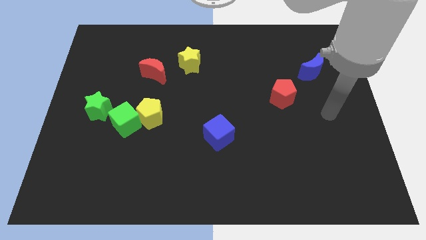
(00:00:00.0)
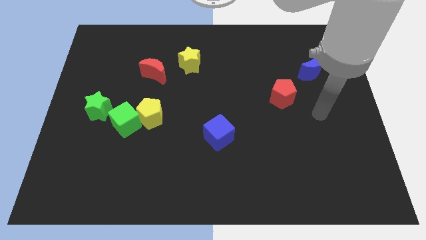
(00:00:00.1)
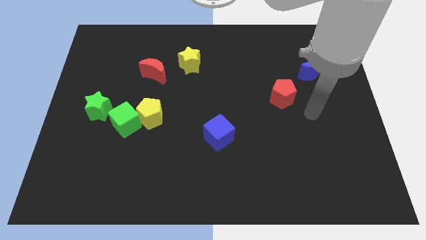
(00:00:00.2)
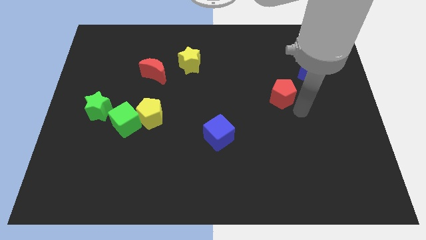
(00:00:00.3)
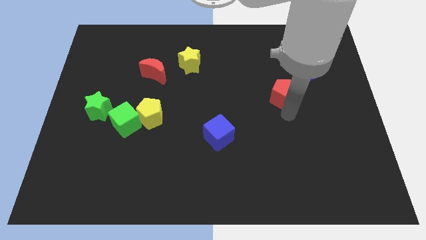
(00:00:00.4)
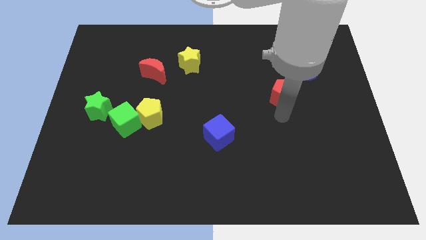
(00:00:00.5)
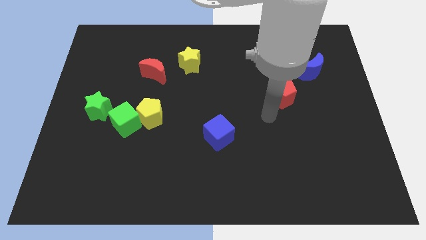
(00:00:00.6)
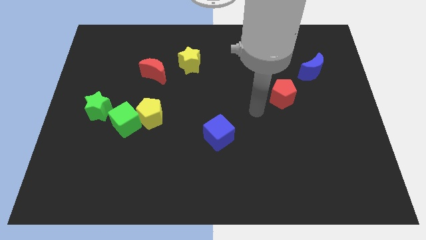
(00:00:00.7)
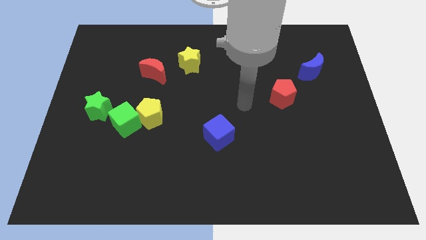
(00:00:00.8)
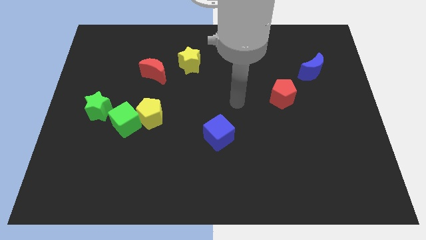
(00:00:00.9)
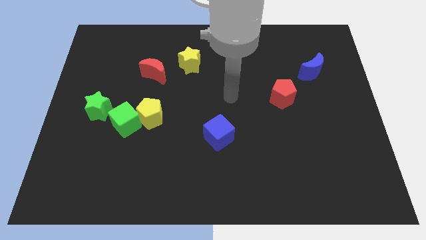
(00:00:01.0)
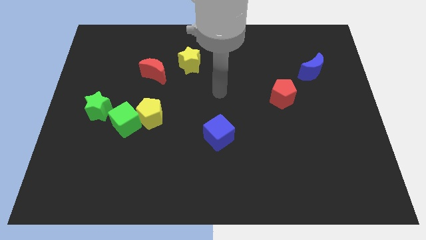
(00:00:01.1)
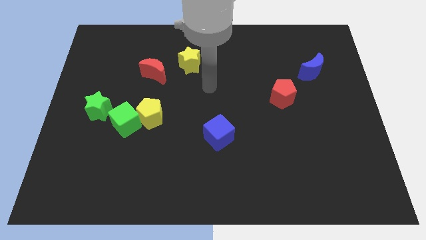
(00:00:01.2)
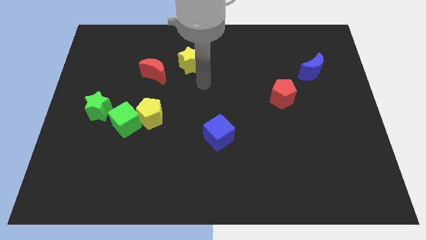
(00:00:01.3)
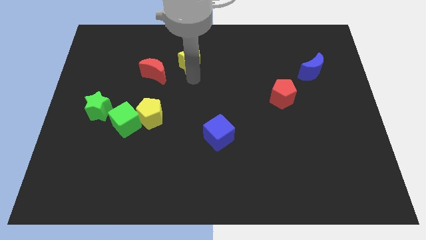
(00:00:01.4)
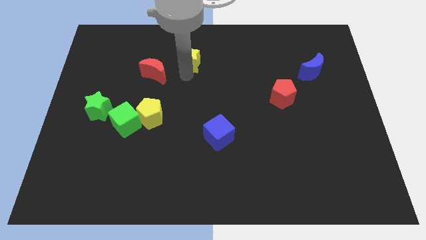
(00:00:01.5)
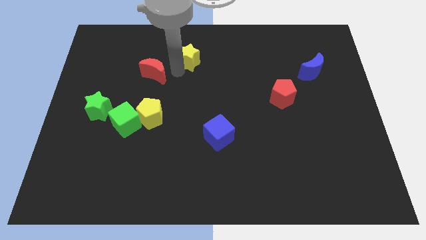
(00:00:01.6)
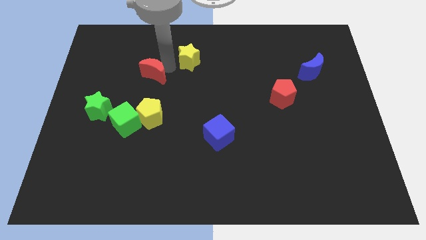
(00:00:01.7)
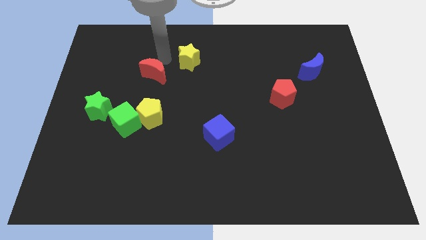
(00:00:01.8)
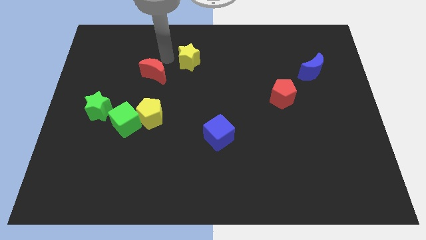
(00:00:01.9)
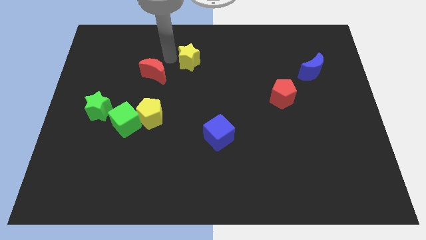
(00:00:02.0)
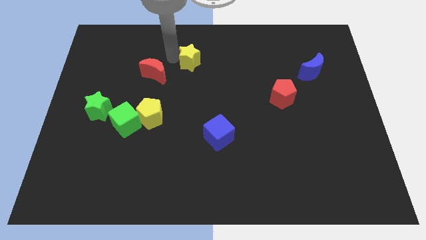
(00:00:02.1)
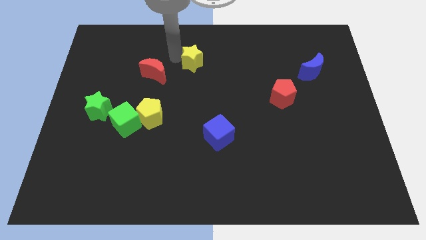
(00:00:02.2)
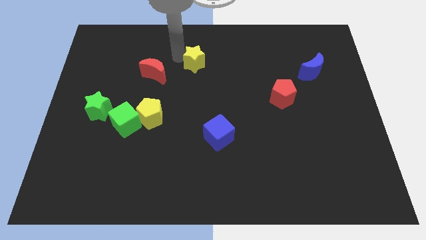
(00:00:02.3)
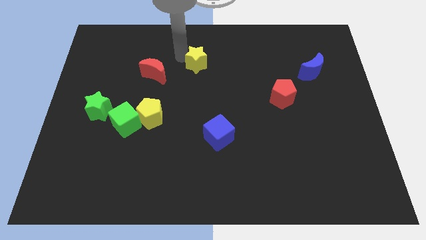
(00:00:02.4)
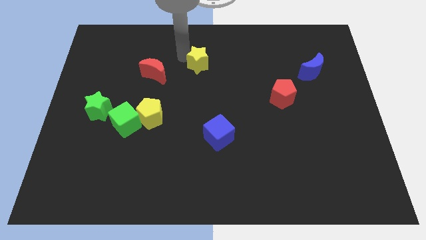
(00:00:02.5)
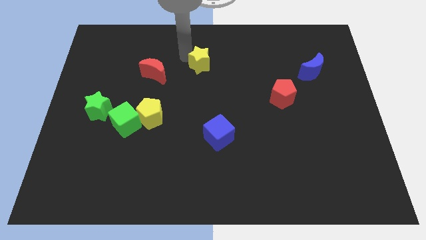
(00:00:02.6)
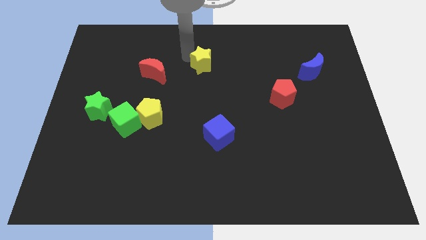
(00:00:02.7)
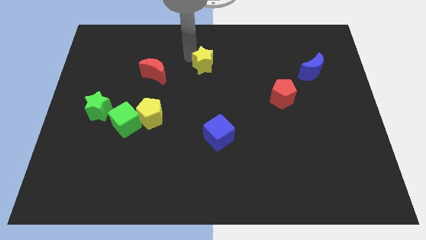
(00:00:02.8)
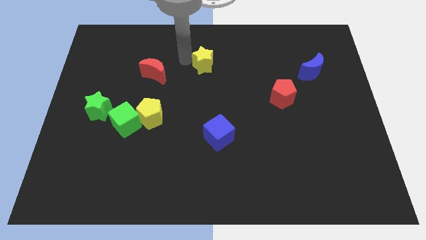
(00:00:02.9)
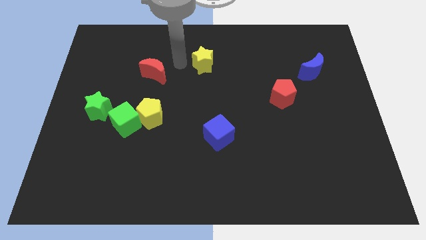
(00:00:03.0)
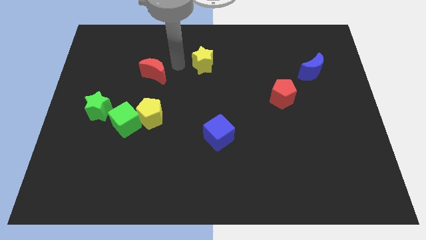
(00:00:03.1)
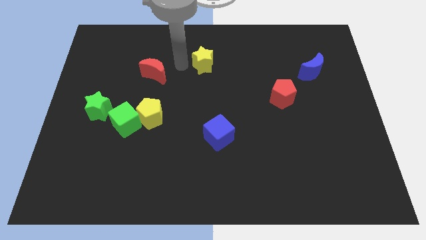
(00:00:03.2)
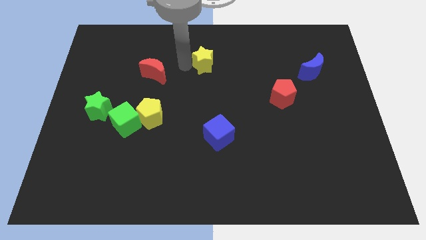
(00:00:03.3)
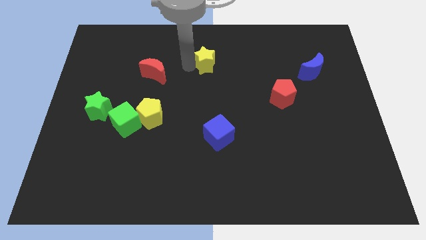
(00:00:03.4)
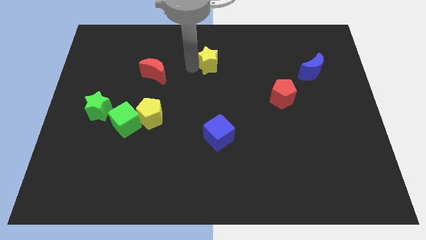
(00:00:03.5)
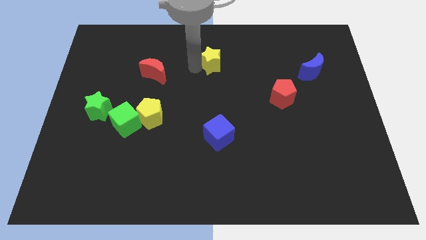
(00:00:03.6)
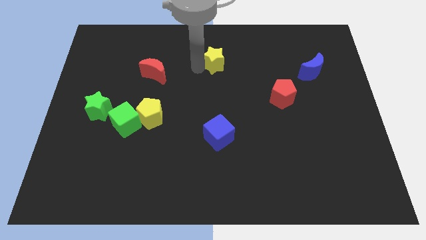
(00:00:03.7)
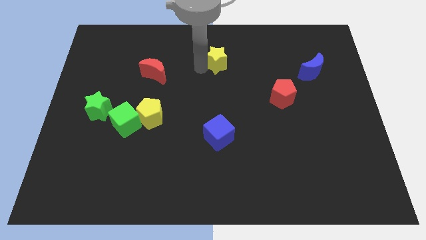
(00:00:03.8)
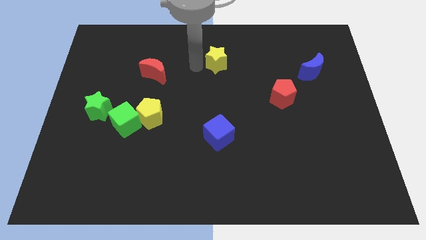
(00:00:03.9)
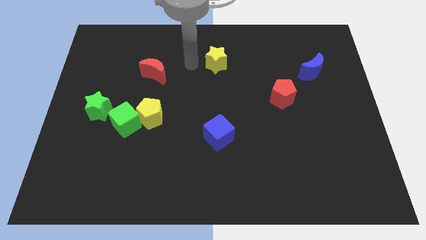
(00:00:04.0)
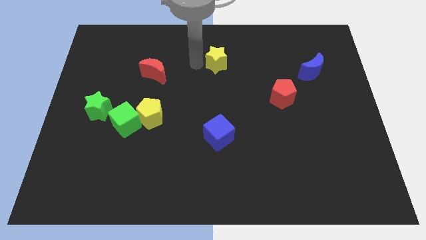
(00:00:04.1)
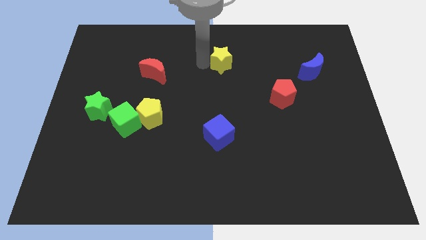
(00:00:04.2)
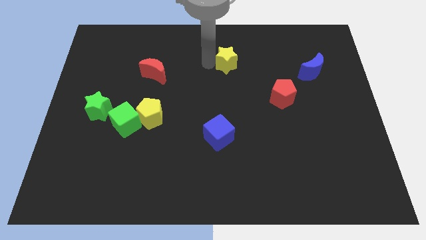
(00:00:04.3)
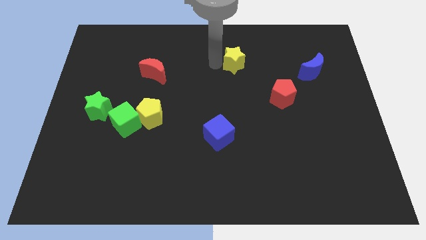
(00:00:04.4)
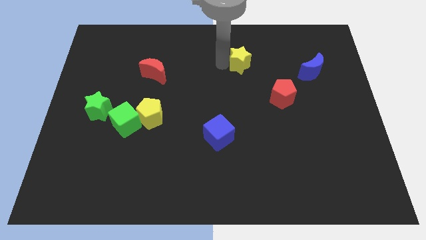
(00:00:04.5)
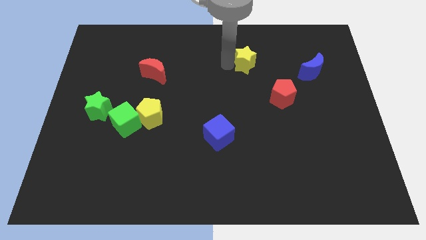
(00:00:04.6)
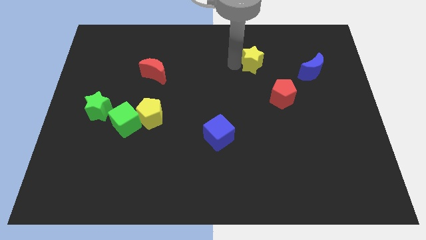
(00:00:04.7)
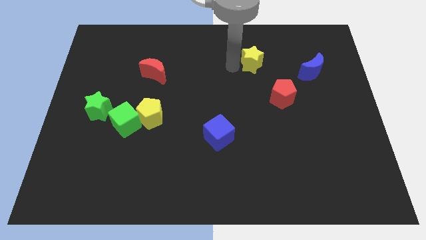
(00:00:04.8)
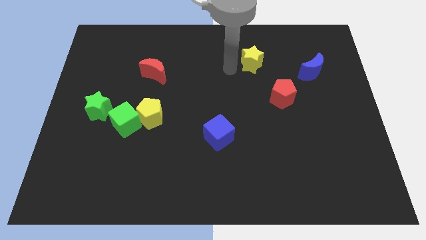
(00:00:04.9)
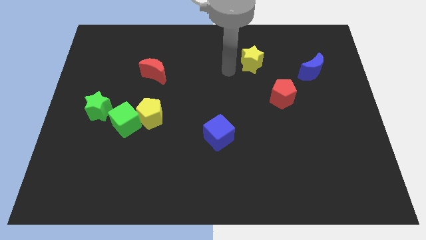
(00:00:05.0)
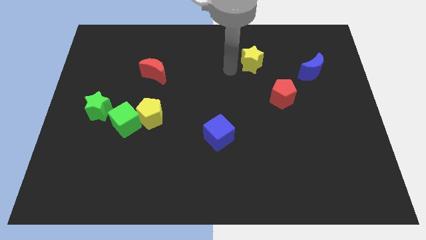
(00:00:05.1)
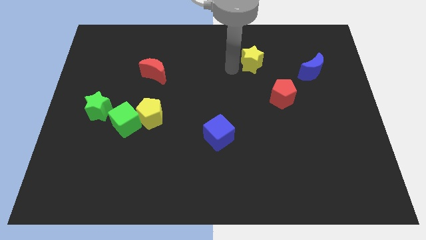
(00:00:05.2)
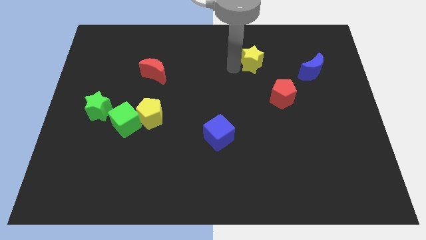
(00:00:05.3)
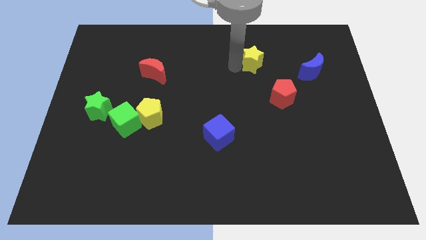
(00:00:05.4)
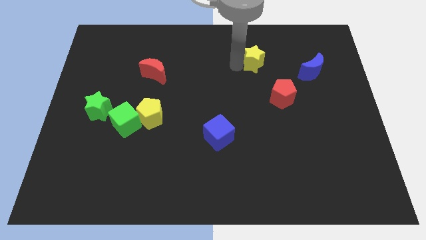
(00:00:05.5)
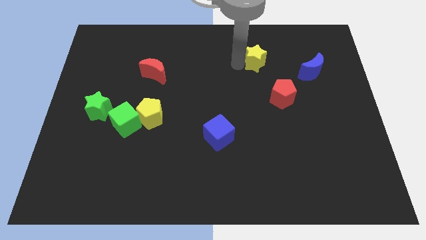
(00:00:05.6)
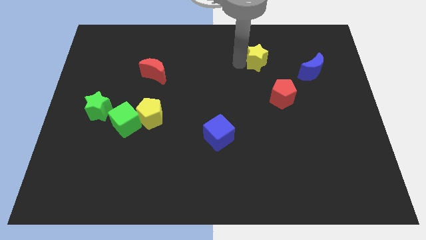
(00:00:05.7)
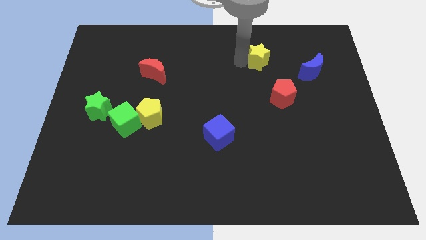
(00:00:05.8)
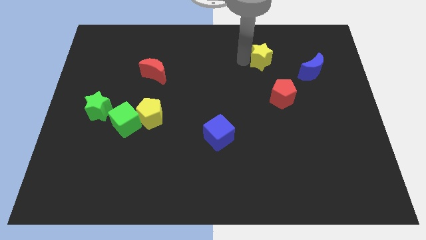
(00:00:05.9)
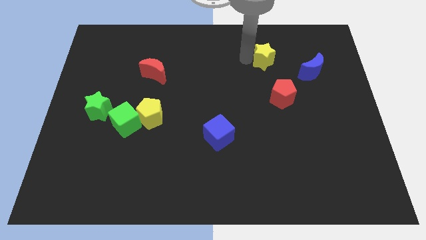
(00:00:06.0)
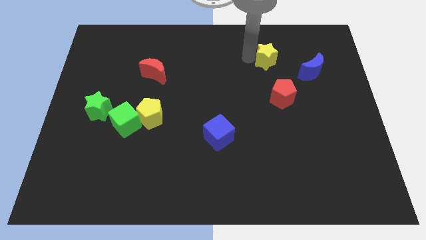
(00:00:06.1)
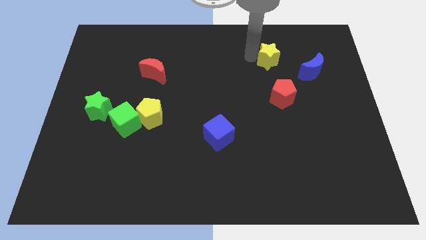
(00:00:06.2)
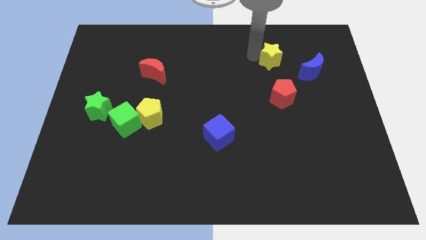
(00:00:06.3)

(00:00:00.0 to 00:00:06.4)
push the yellow star to the top left side of the blue moon

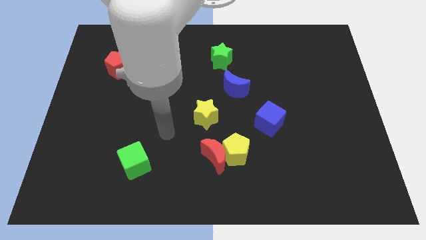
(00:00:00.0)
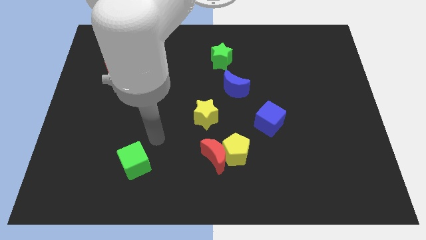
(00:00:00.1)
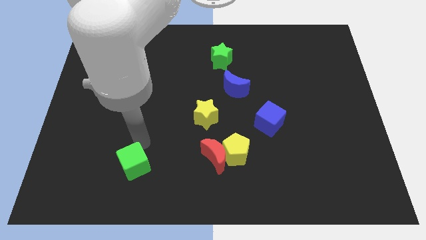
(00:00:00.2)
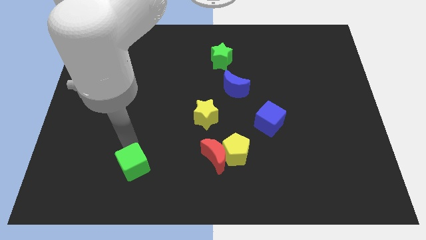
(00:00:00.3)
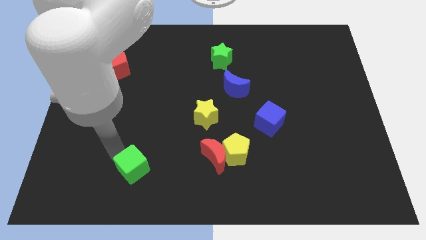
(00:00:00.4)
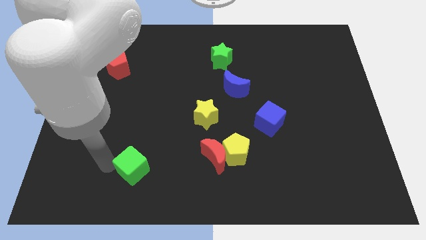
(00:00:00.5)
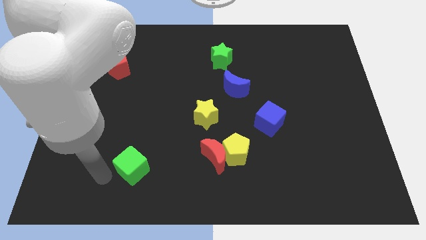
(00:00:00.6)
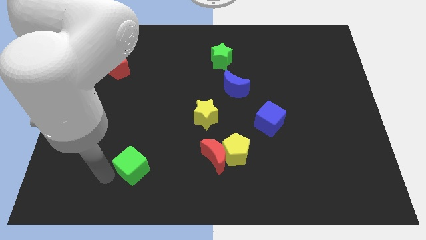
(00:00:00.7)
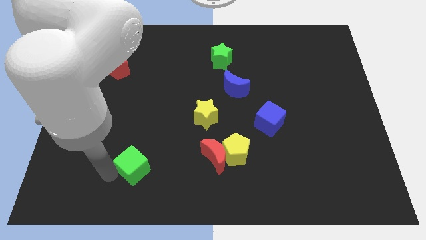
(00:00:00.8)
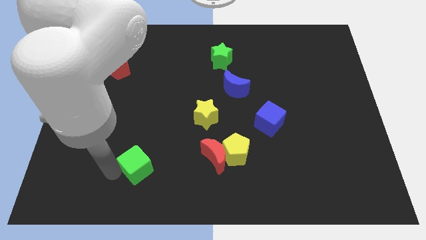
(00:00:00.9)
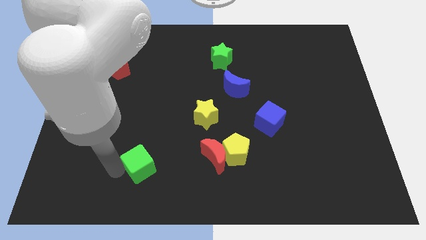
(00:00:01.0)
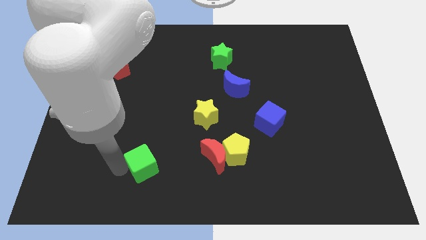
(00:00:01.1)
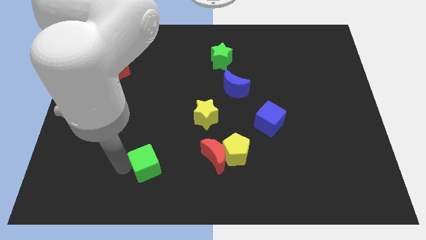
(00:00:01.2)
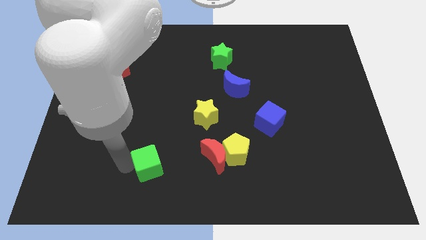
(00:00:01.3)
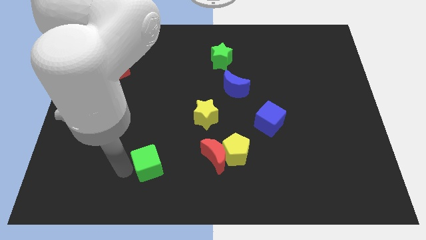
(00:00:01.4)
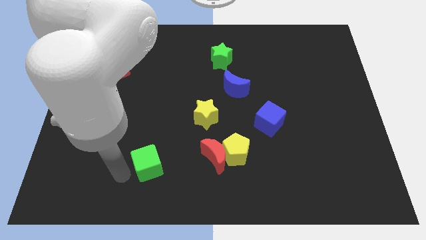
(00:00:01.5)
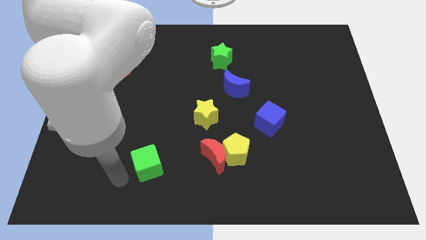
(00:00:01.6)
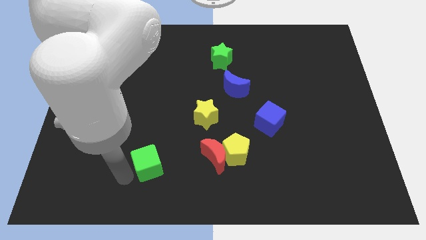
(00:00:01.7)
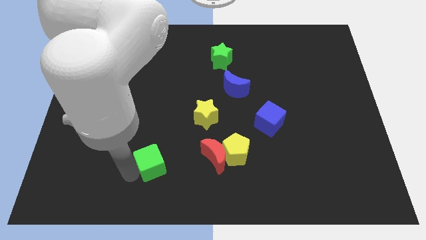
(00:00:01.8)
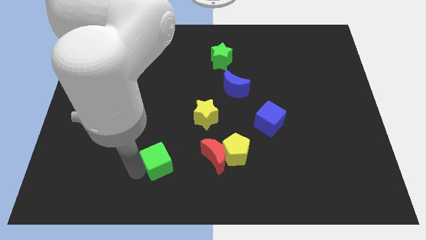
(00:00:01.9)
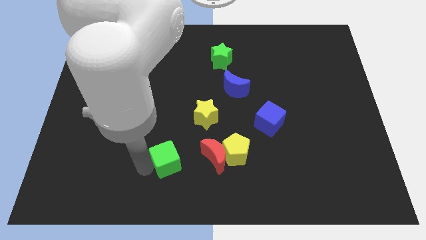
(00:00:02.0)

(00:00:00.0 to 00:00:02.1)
move the green cube left of the yellow pentagon
